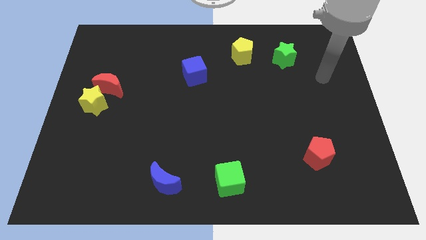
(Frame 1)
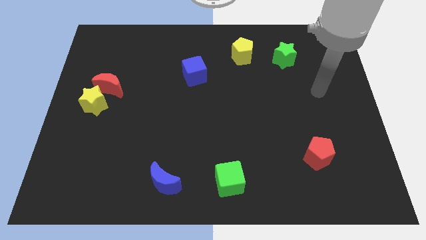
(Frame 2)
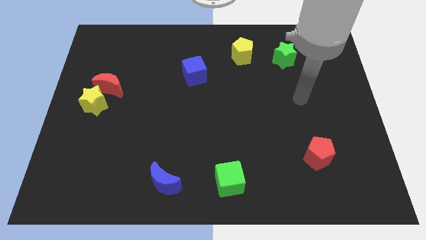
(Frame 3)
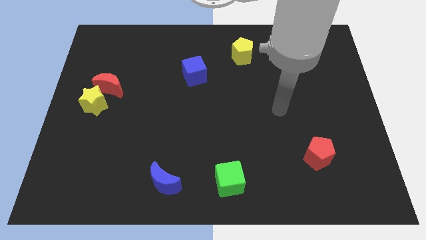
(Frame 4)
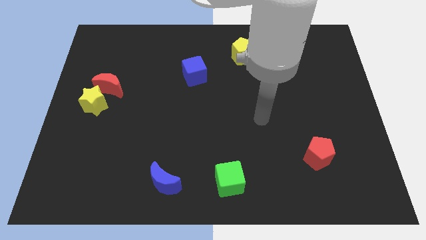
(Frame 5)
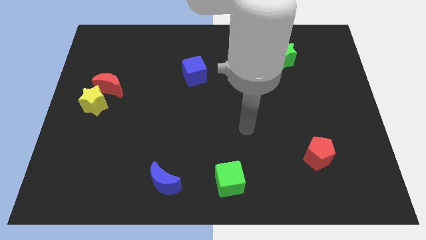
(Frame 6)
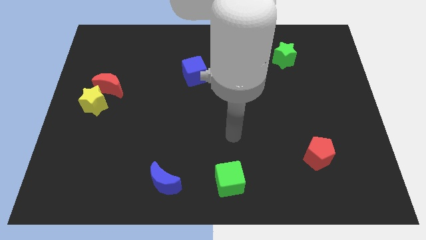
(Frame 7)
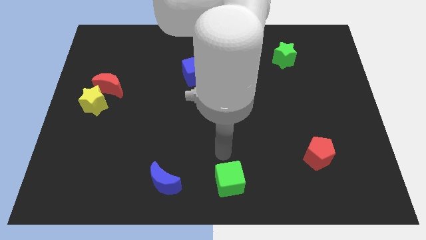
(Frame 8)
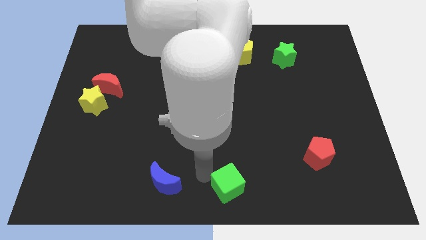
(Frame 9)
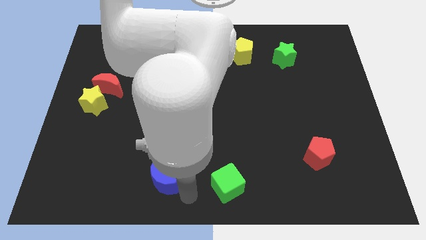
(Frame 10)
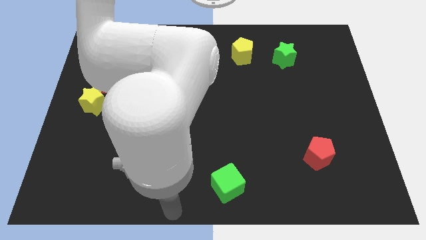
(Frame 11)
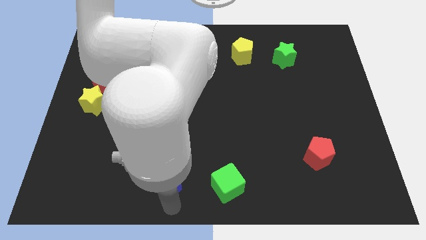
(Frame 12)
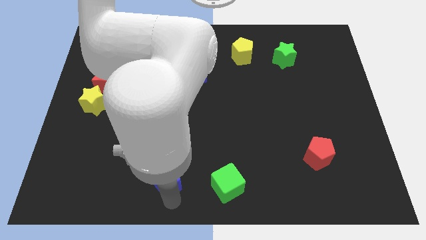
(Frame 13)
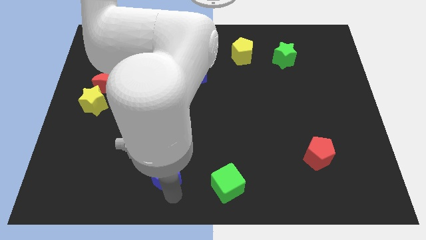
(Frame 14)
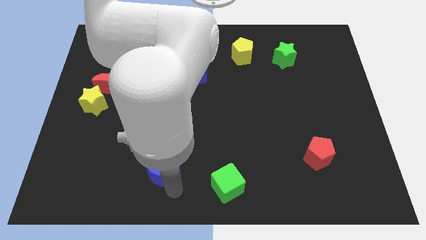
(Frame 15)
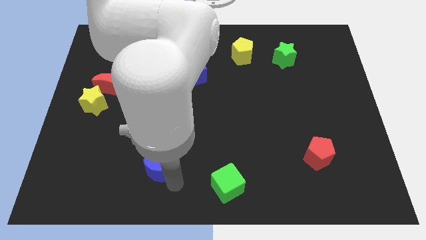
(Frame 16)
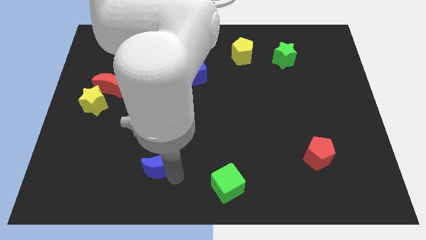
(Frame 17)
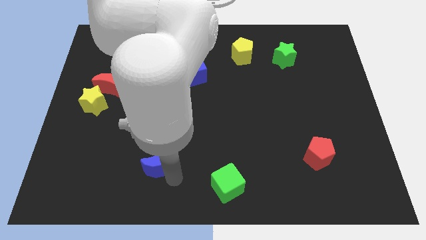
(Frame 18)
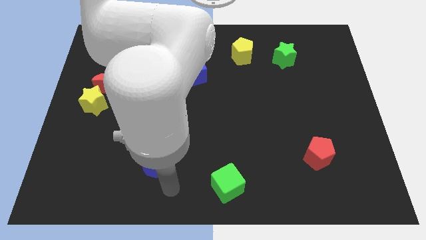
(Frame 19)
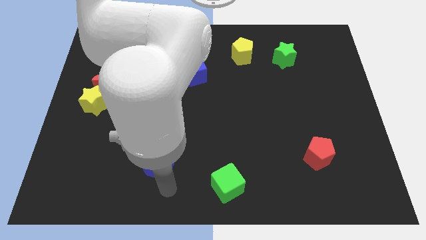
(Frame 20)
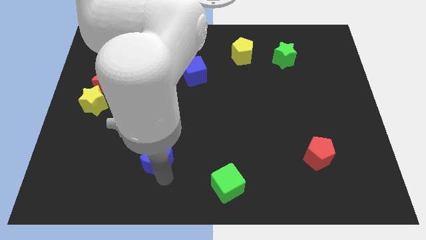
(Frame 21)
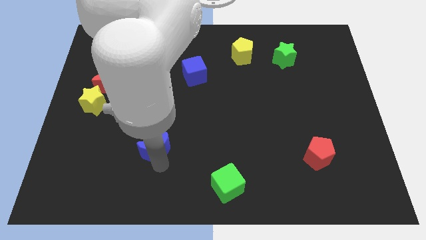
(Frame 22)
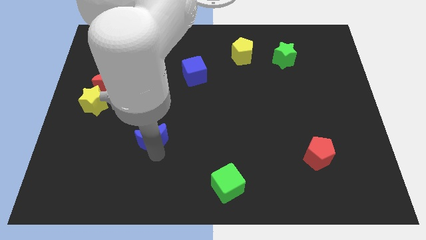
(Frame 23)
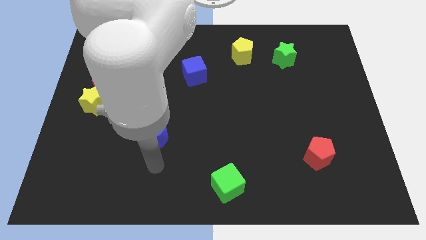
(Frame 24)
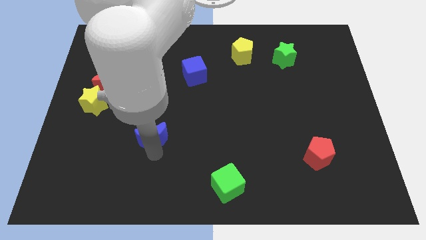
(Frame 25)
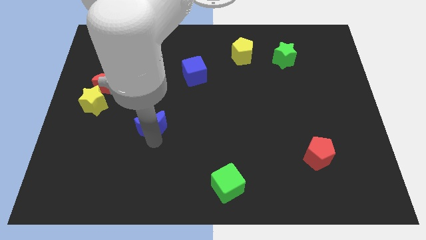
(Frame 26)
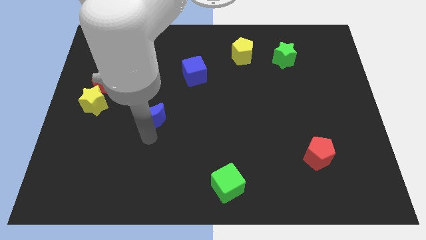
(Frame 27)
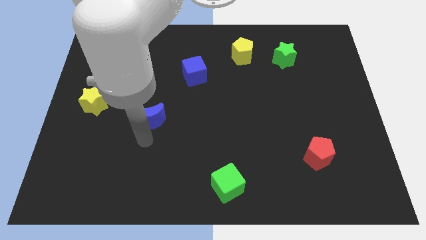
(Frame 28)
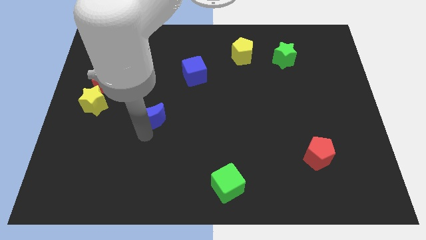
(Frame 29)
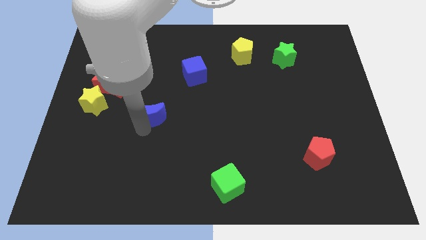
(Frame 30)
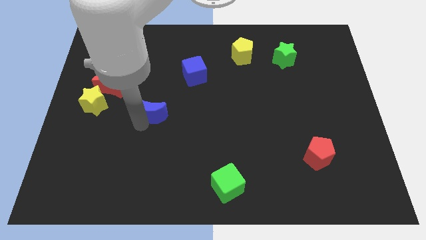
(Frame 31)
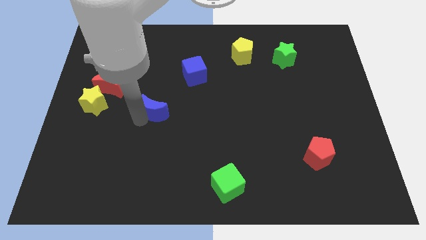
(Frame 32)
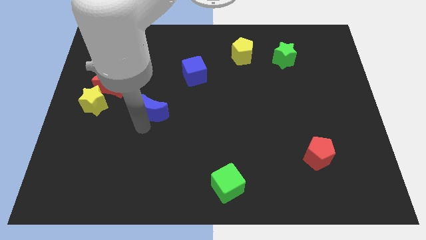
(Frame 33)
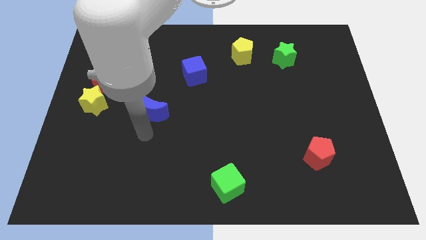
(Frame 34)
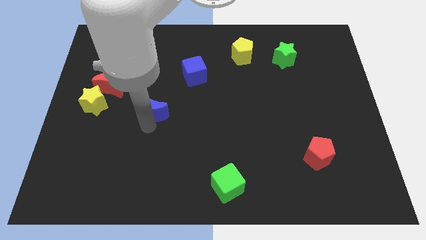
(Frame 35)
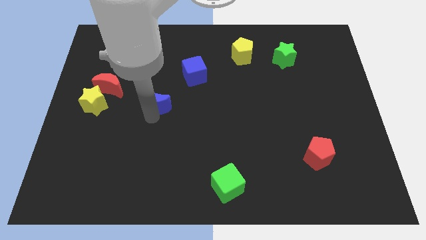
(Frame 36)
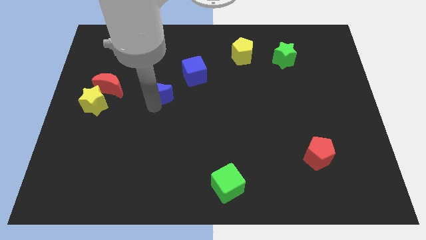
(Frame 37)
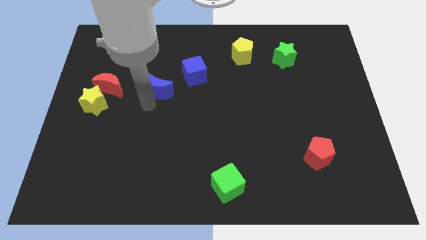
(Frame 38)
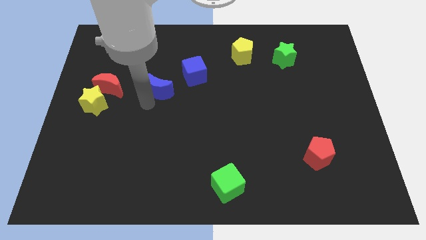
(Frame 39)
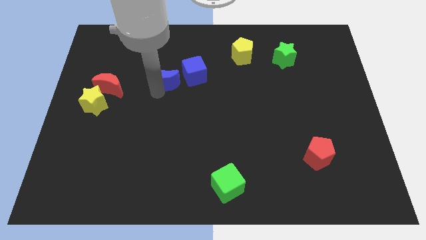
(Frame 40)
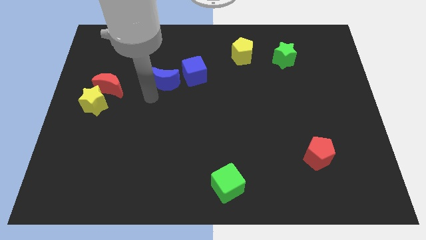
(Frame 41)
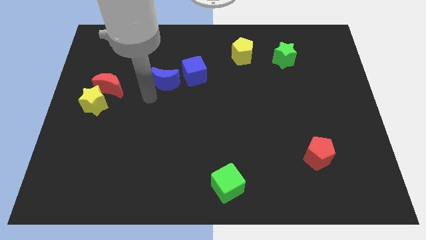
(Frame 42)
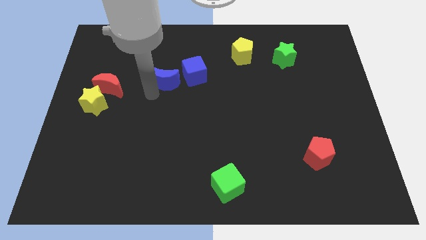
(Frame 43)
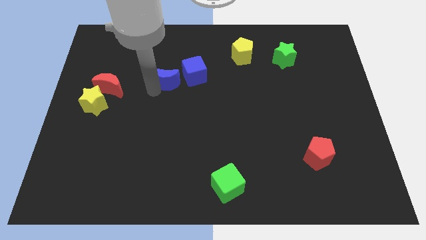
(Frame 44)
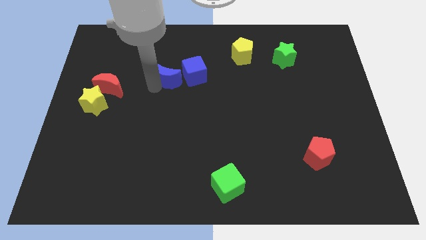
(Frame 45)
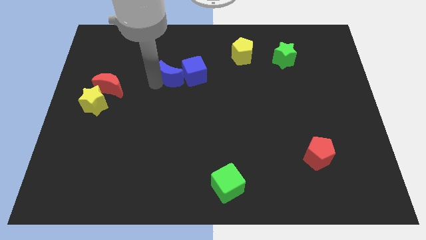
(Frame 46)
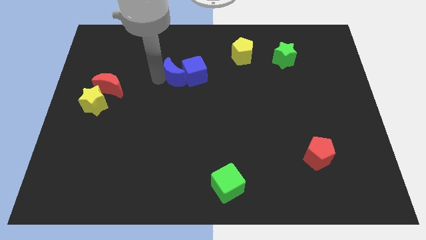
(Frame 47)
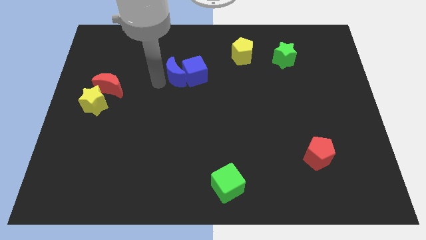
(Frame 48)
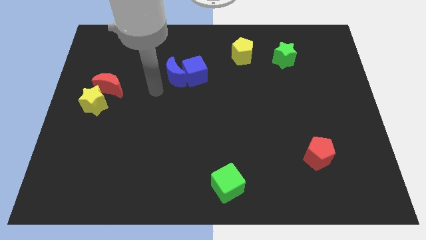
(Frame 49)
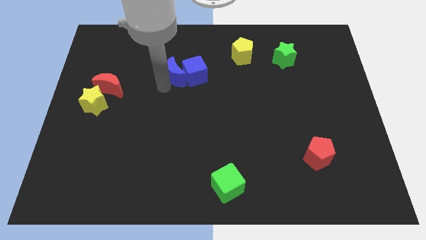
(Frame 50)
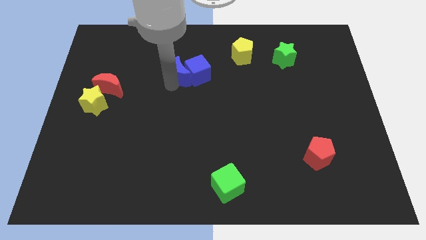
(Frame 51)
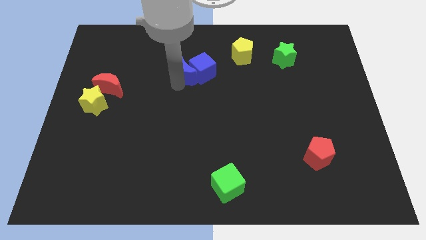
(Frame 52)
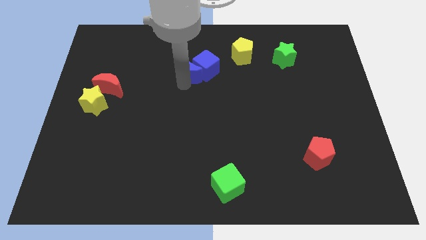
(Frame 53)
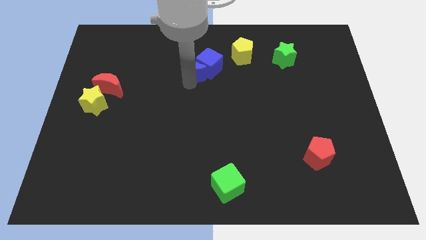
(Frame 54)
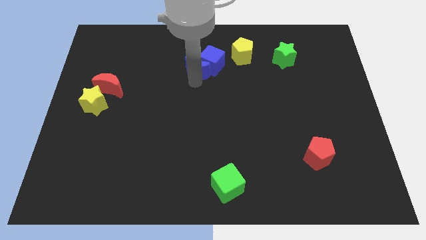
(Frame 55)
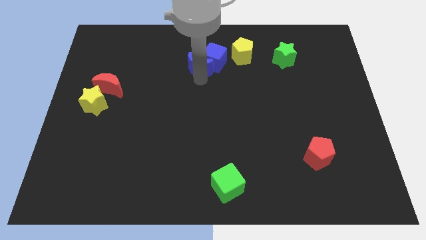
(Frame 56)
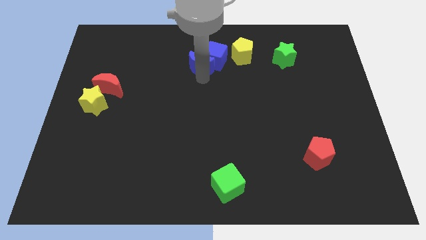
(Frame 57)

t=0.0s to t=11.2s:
move the blue moon to the left side of the yellow pentagon

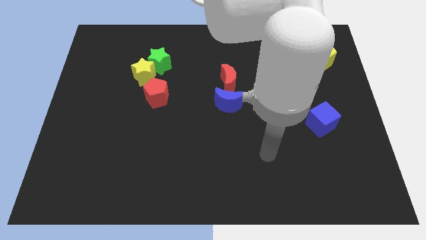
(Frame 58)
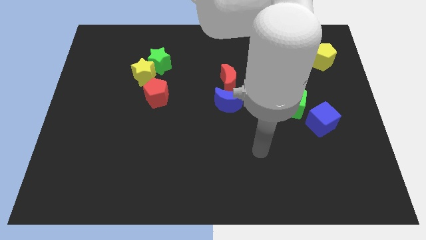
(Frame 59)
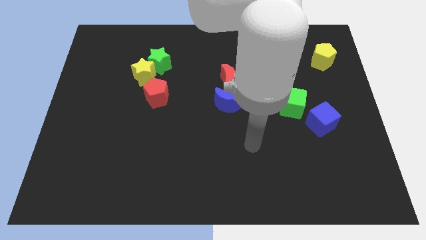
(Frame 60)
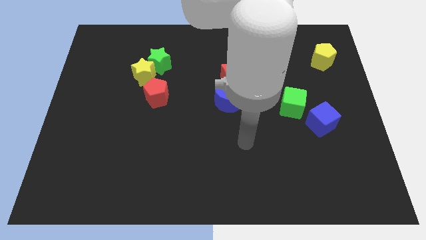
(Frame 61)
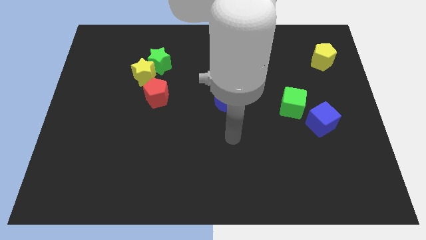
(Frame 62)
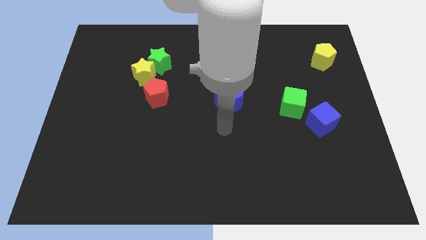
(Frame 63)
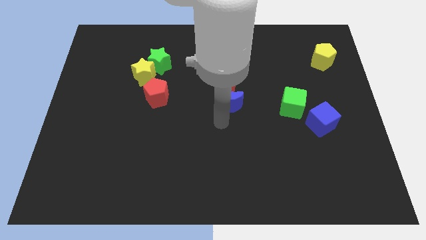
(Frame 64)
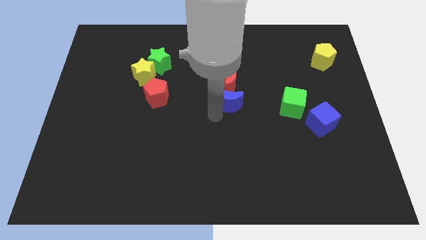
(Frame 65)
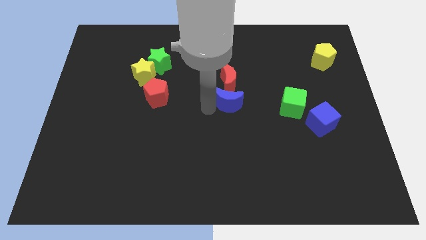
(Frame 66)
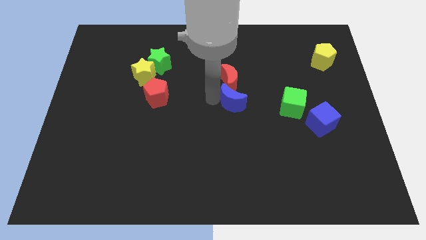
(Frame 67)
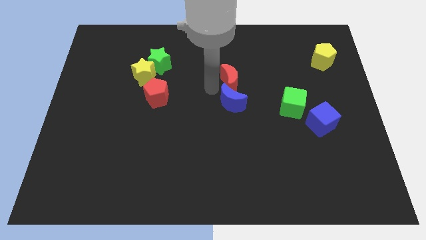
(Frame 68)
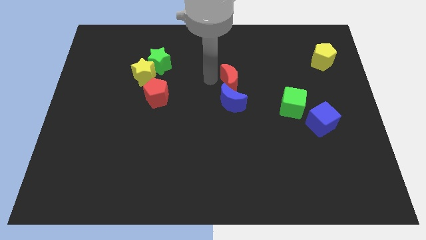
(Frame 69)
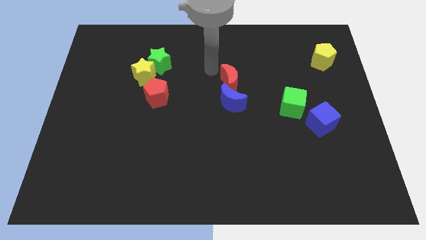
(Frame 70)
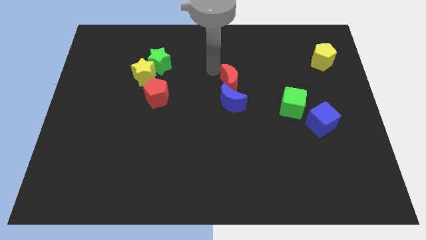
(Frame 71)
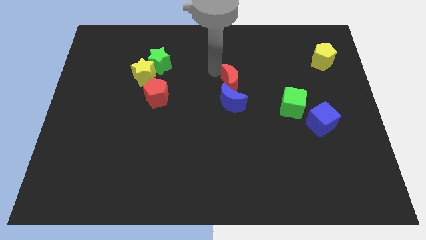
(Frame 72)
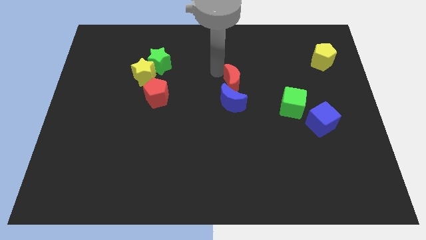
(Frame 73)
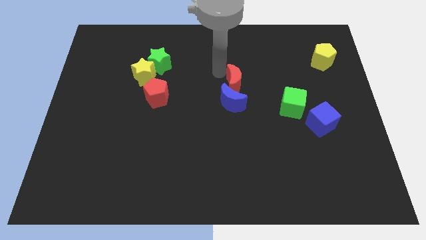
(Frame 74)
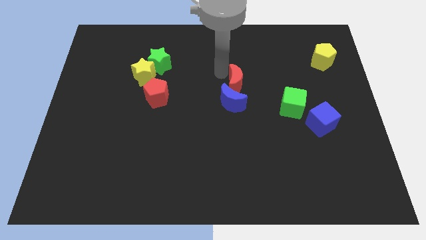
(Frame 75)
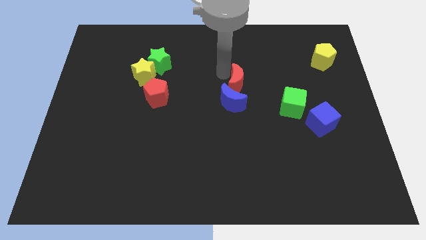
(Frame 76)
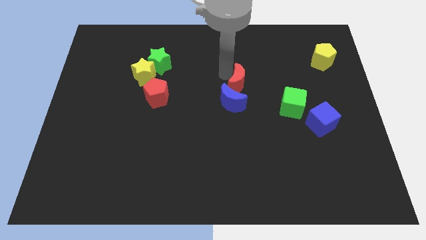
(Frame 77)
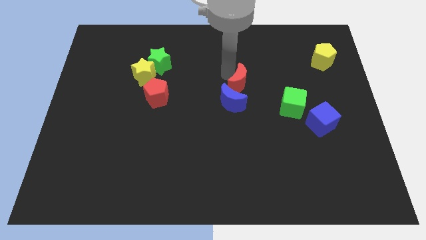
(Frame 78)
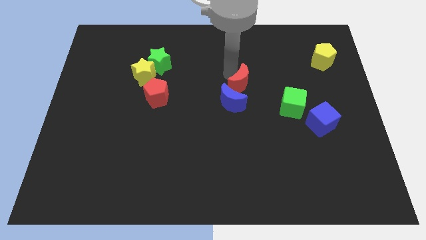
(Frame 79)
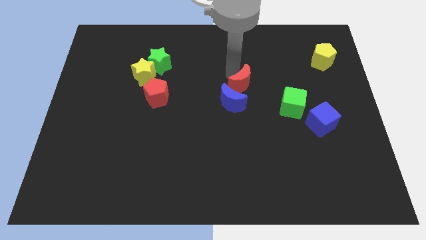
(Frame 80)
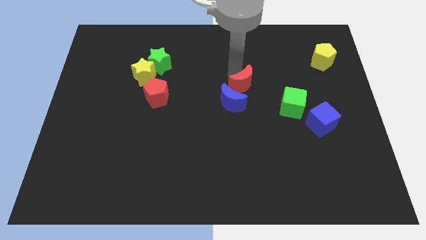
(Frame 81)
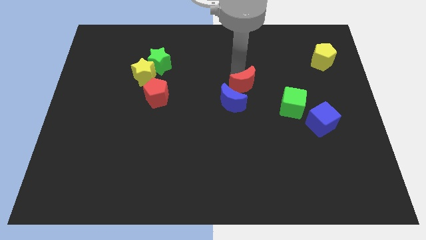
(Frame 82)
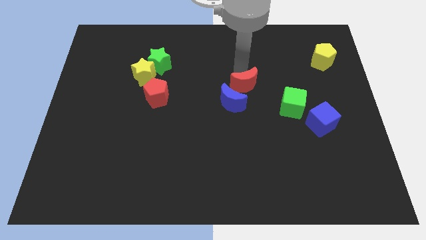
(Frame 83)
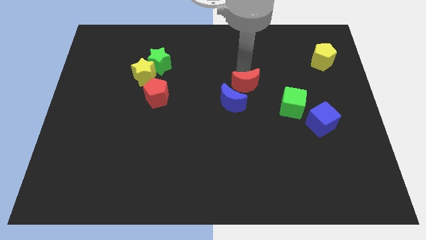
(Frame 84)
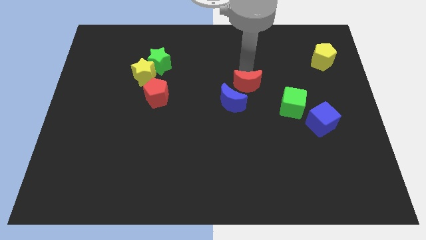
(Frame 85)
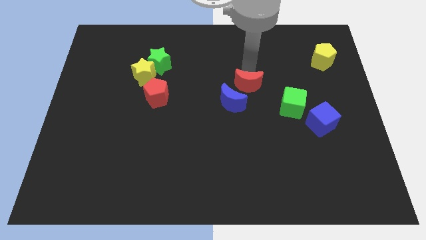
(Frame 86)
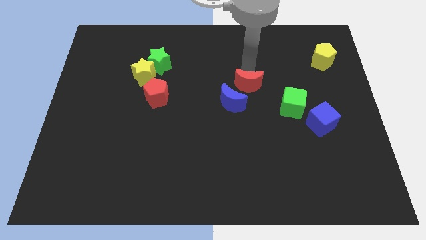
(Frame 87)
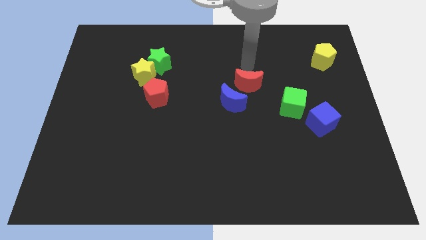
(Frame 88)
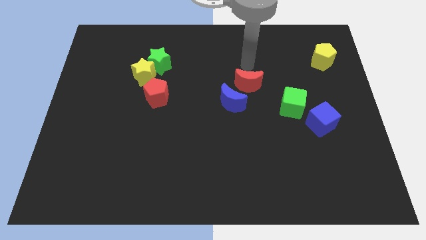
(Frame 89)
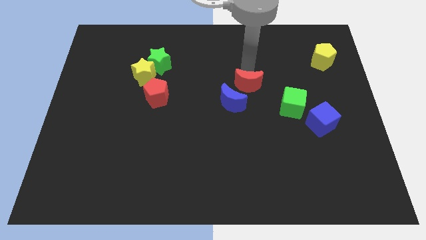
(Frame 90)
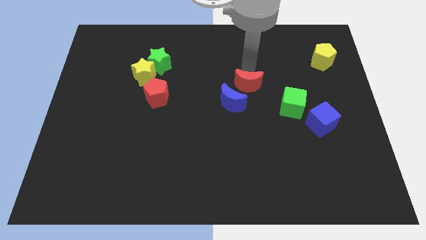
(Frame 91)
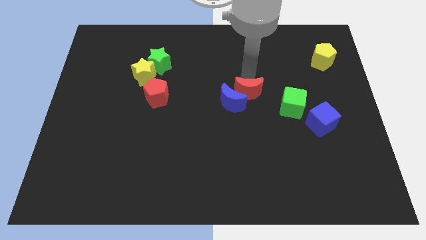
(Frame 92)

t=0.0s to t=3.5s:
put the red moon to the left of the green cube
